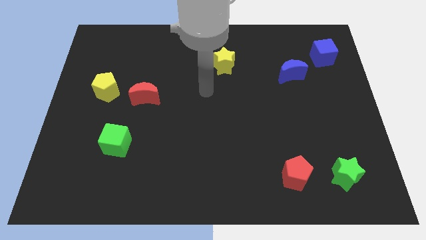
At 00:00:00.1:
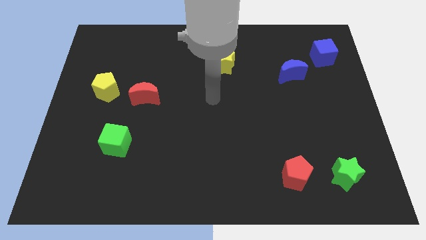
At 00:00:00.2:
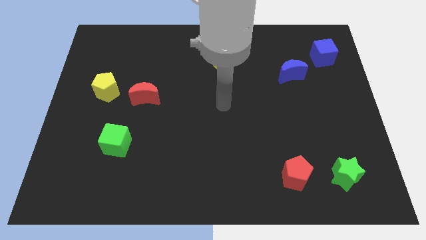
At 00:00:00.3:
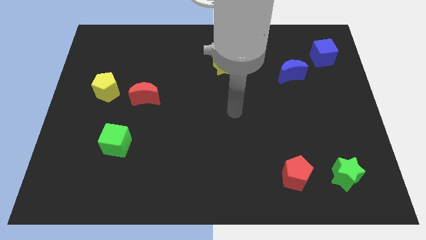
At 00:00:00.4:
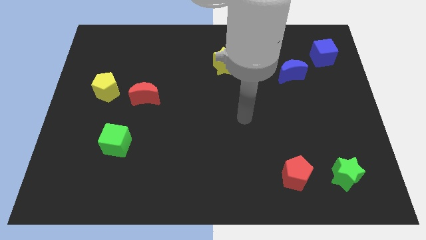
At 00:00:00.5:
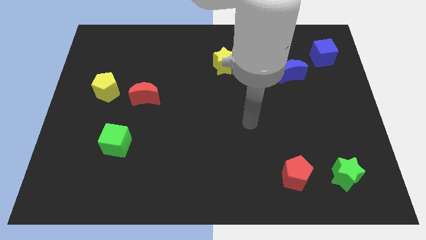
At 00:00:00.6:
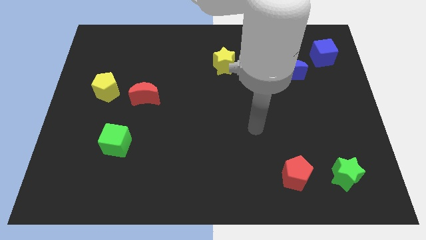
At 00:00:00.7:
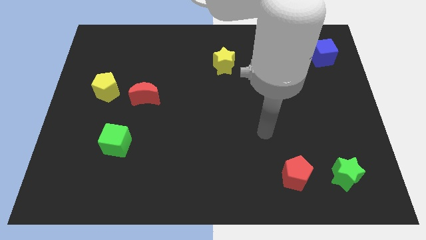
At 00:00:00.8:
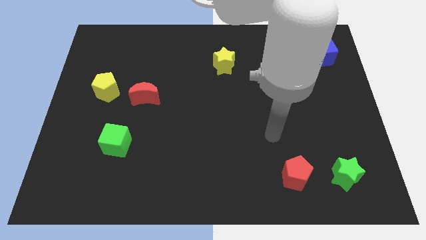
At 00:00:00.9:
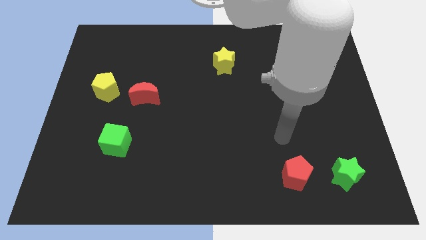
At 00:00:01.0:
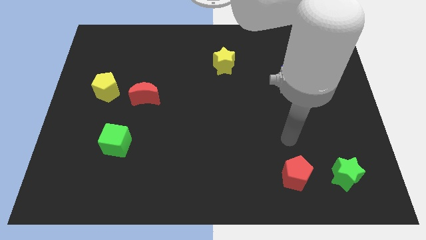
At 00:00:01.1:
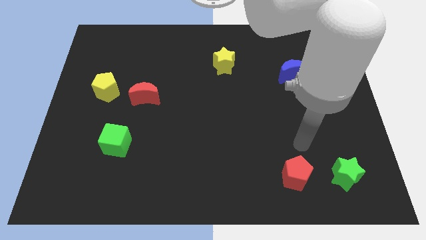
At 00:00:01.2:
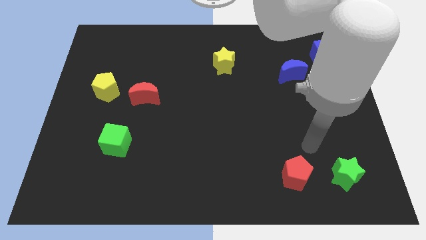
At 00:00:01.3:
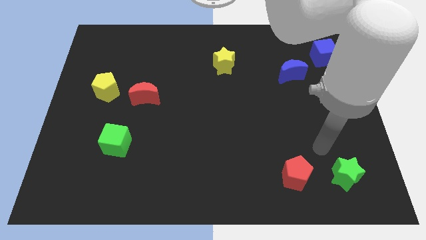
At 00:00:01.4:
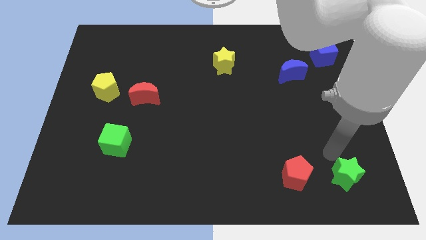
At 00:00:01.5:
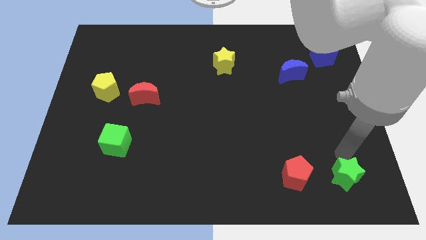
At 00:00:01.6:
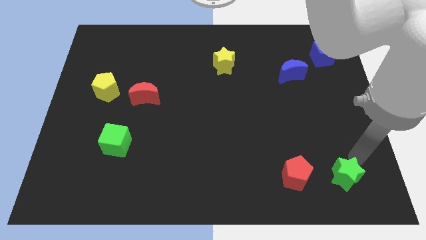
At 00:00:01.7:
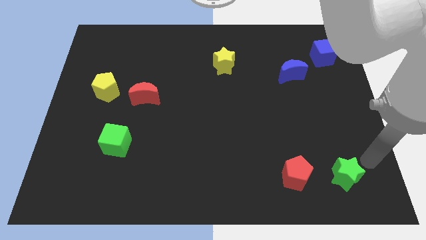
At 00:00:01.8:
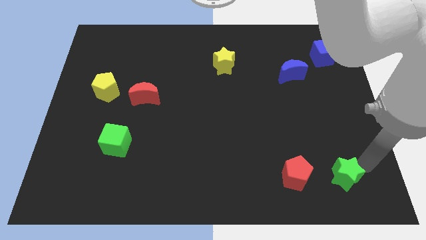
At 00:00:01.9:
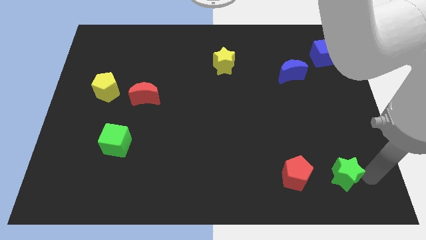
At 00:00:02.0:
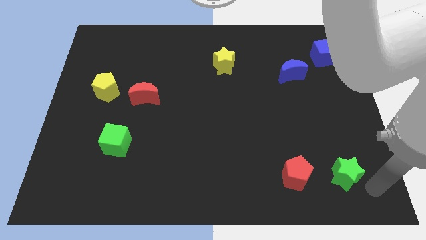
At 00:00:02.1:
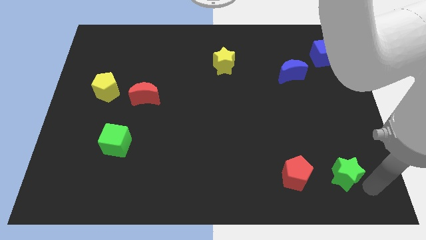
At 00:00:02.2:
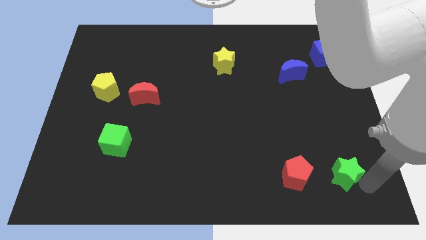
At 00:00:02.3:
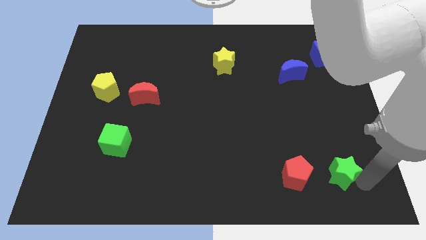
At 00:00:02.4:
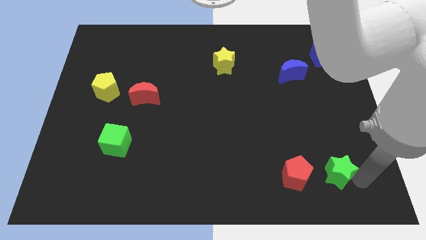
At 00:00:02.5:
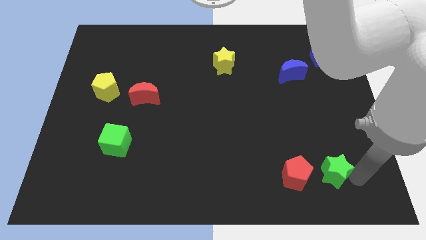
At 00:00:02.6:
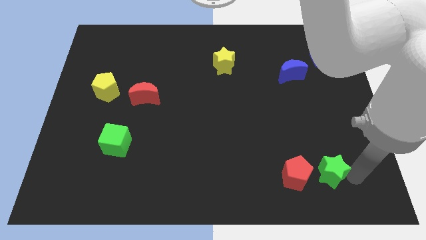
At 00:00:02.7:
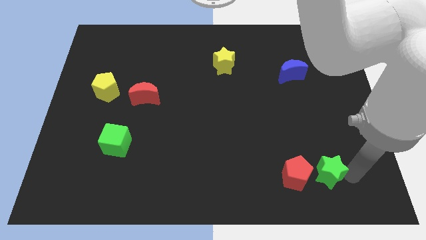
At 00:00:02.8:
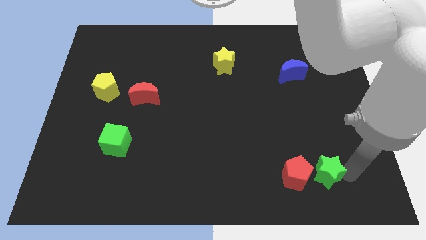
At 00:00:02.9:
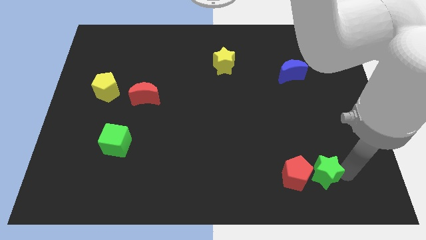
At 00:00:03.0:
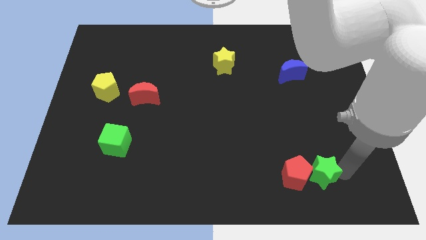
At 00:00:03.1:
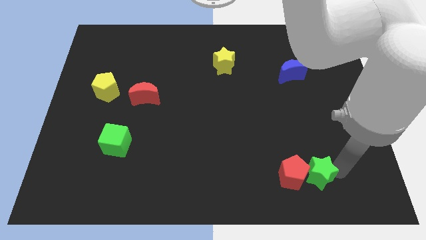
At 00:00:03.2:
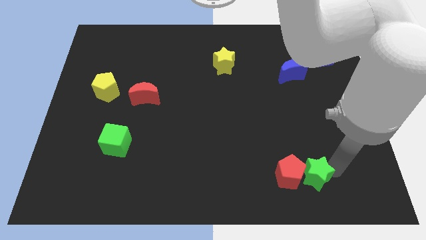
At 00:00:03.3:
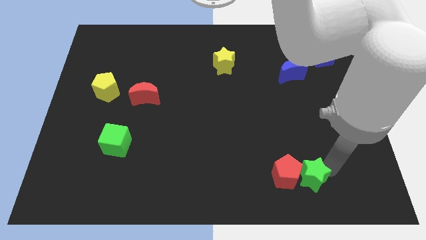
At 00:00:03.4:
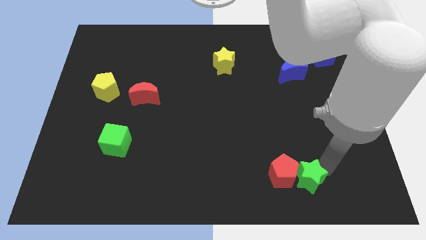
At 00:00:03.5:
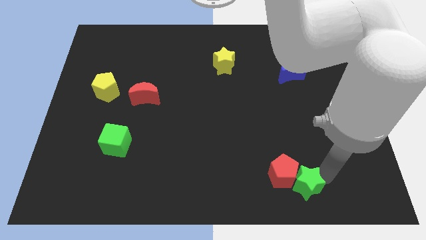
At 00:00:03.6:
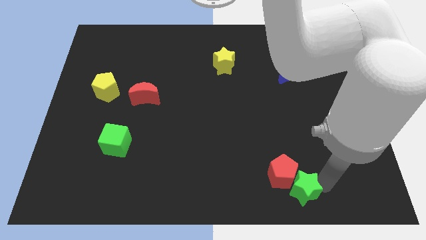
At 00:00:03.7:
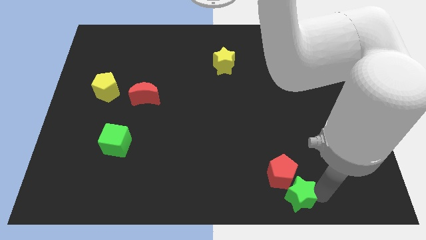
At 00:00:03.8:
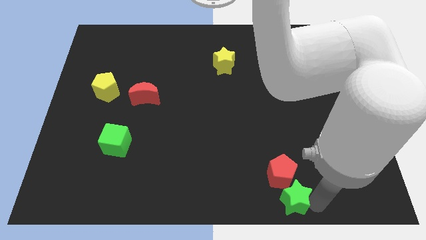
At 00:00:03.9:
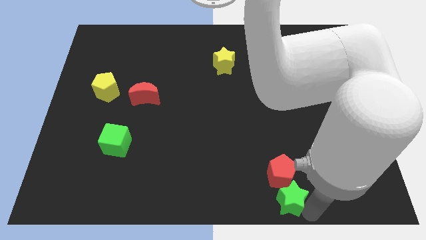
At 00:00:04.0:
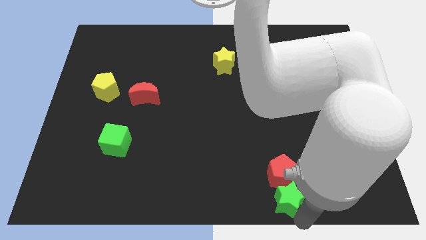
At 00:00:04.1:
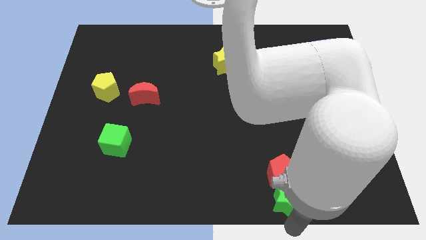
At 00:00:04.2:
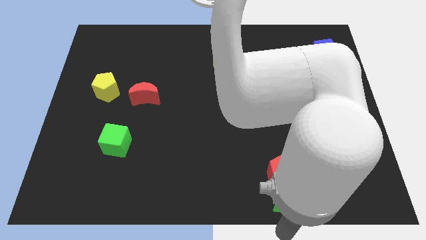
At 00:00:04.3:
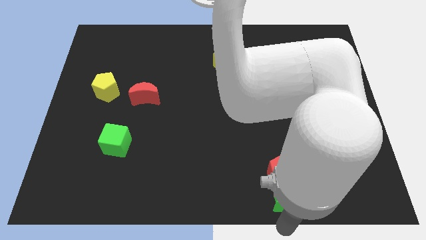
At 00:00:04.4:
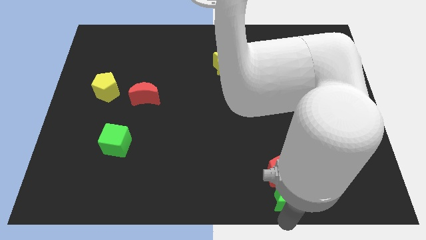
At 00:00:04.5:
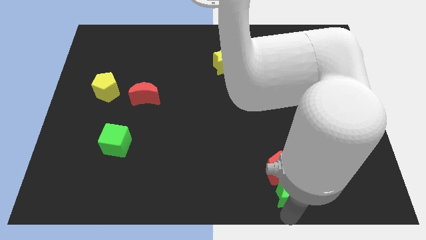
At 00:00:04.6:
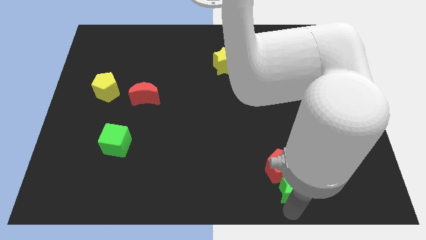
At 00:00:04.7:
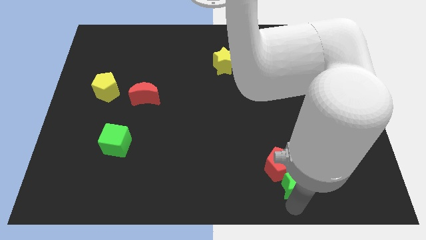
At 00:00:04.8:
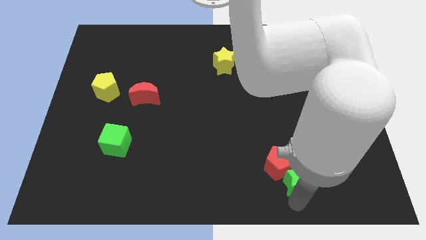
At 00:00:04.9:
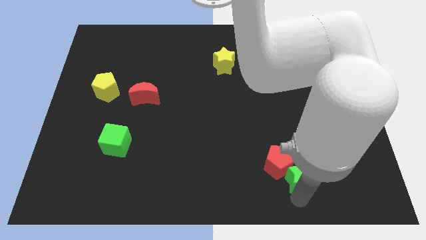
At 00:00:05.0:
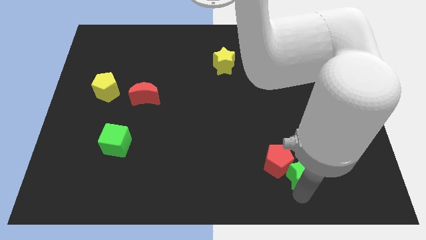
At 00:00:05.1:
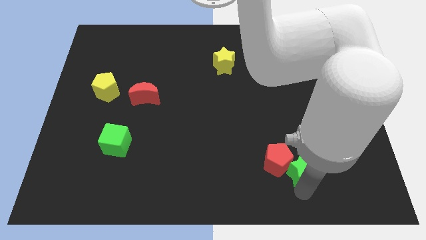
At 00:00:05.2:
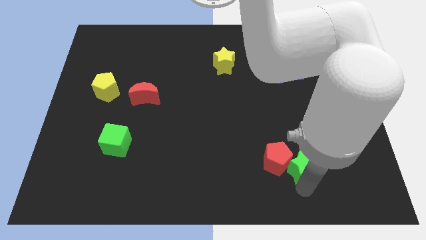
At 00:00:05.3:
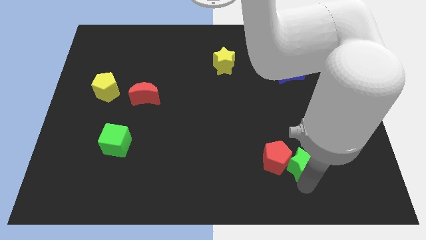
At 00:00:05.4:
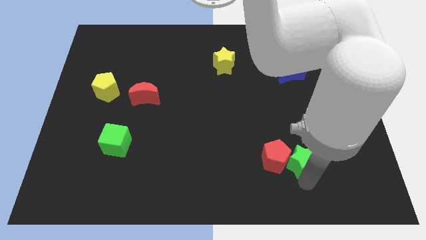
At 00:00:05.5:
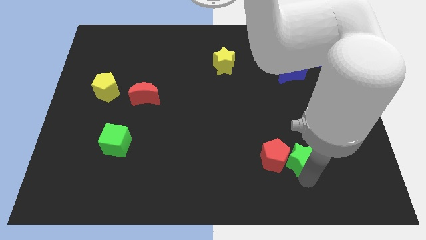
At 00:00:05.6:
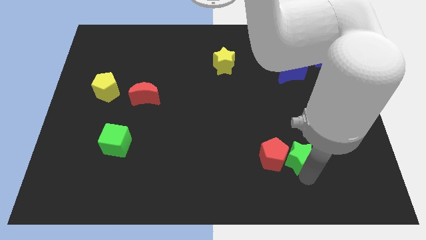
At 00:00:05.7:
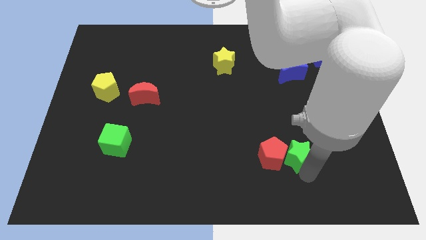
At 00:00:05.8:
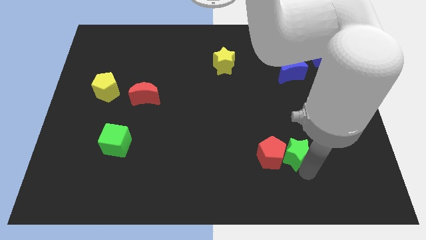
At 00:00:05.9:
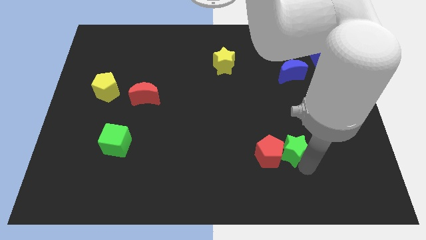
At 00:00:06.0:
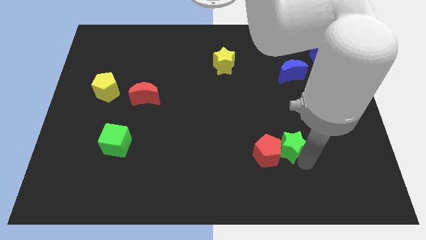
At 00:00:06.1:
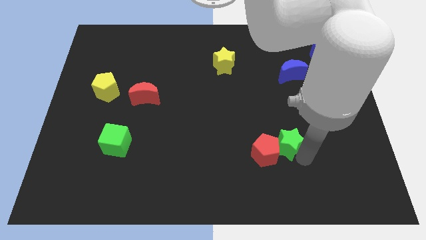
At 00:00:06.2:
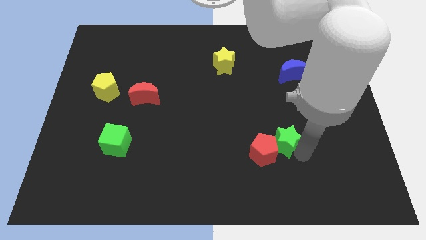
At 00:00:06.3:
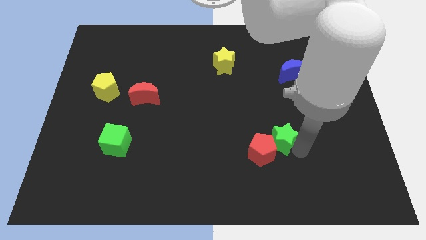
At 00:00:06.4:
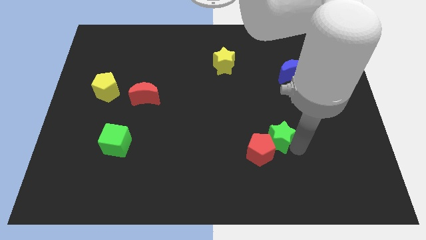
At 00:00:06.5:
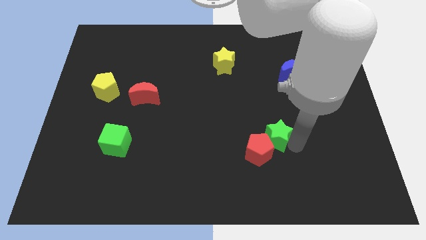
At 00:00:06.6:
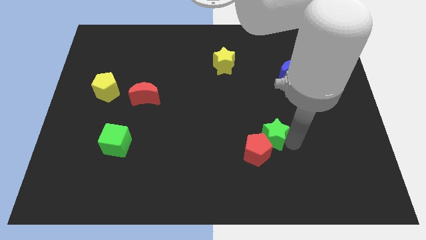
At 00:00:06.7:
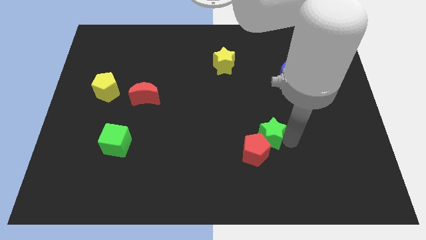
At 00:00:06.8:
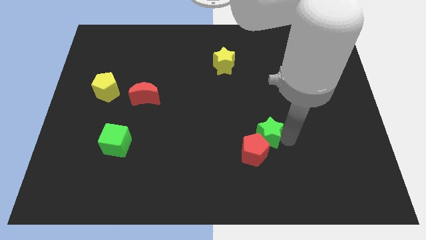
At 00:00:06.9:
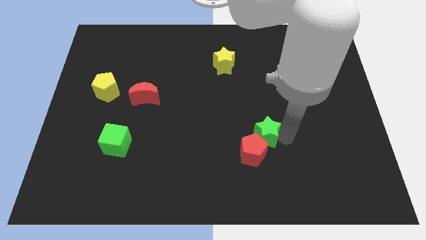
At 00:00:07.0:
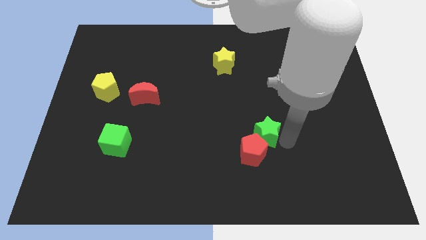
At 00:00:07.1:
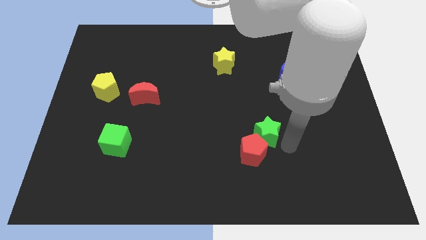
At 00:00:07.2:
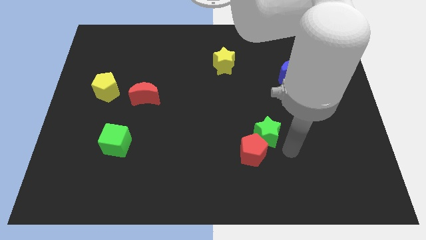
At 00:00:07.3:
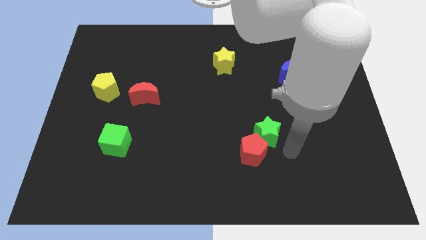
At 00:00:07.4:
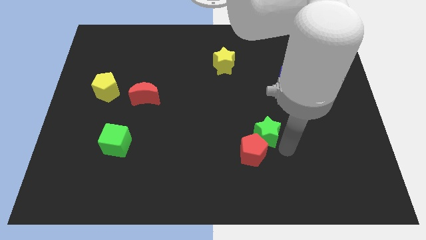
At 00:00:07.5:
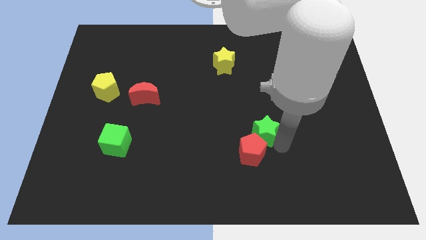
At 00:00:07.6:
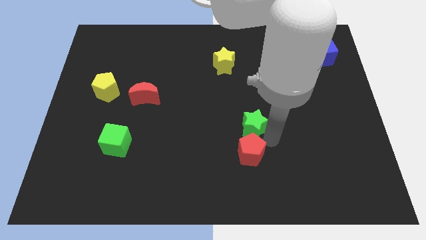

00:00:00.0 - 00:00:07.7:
move the green star to the center
